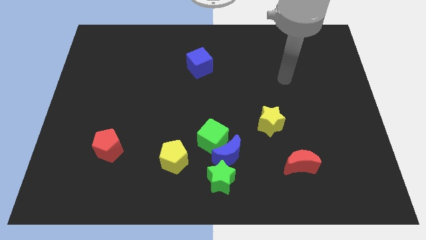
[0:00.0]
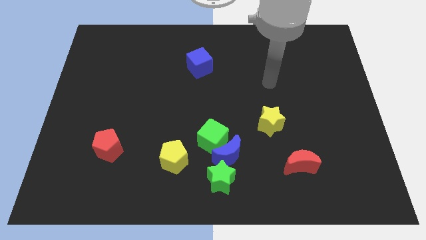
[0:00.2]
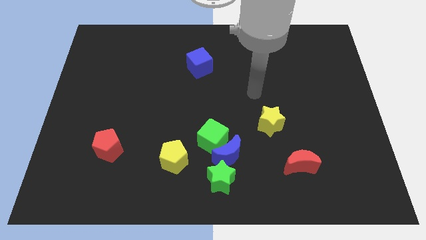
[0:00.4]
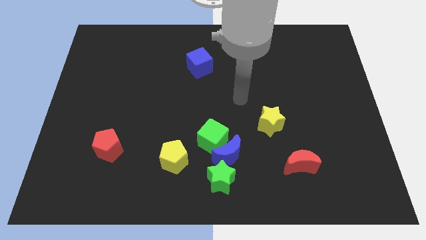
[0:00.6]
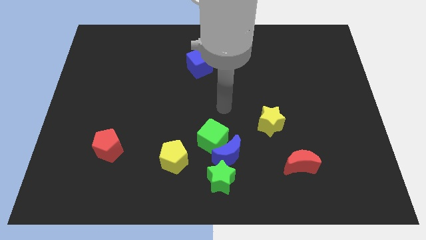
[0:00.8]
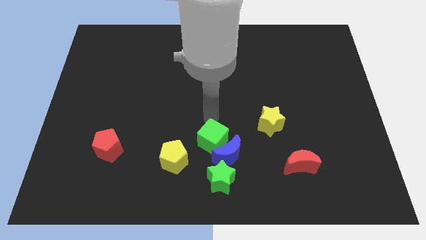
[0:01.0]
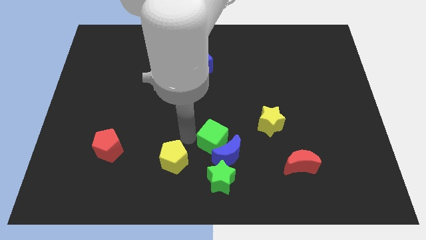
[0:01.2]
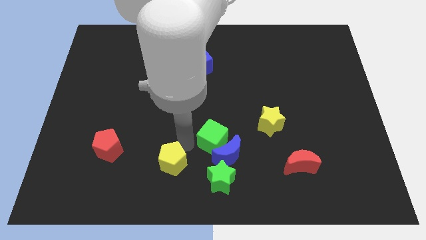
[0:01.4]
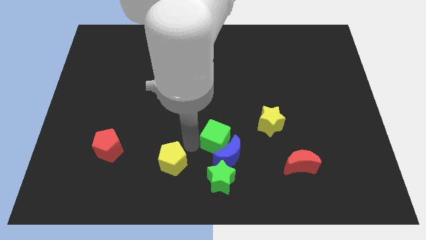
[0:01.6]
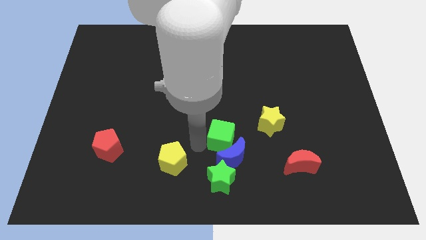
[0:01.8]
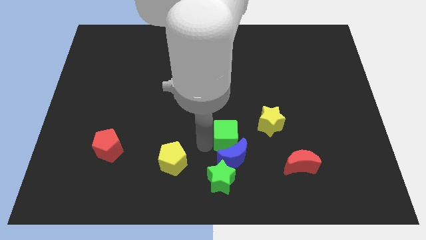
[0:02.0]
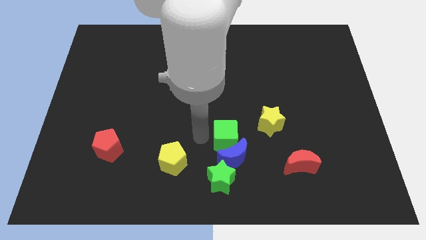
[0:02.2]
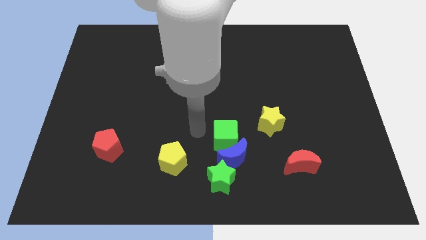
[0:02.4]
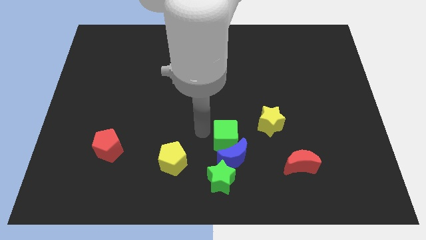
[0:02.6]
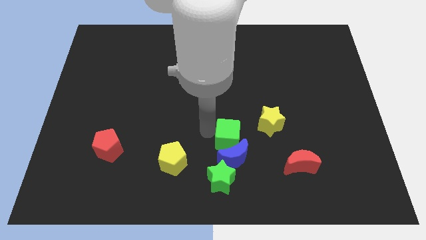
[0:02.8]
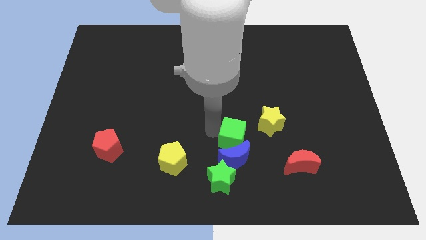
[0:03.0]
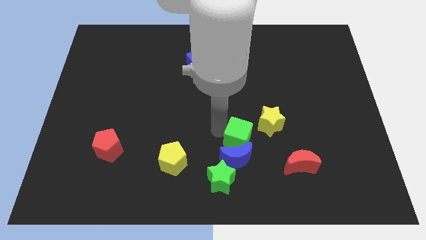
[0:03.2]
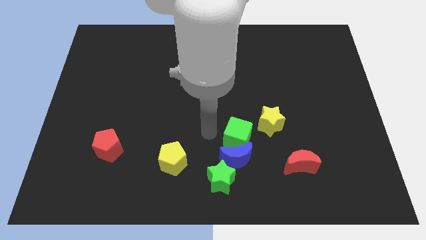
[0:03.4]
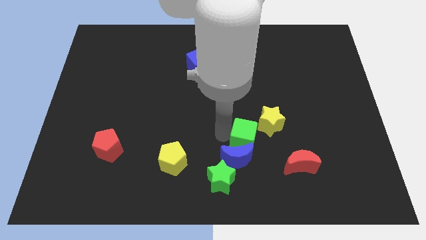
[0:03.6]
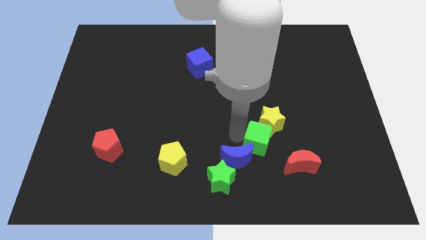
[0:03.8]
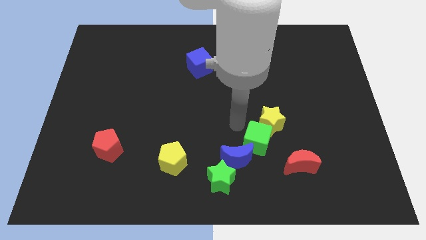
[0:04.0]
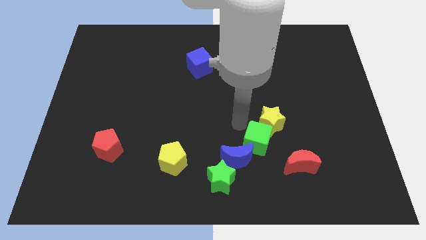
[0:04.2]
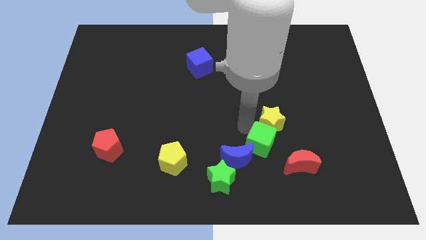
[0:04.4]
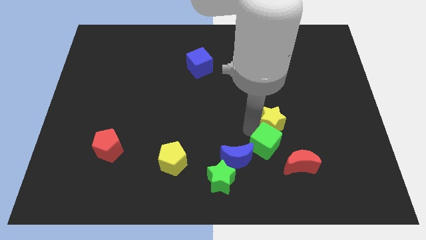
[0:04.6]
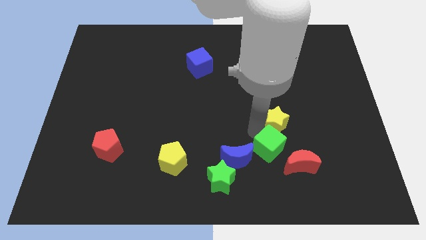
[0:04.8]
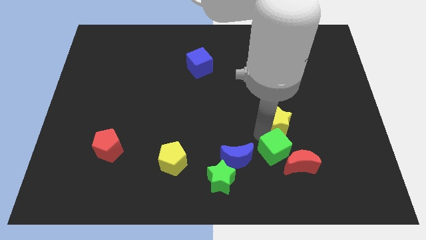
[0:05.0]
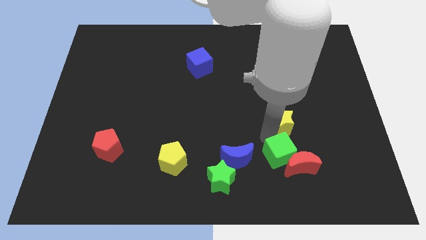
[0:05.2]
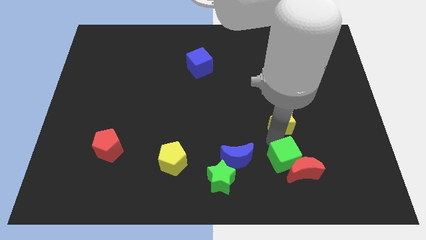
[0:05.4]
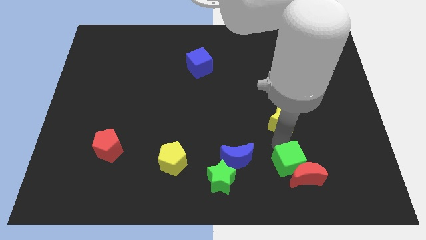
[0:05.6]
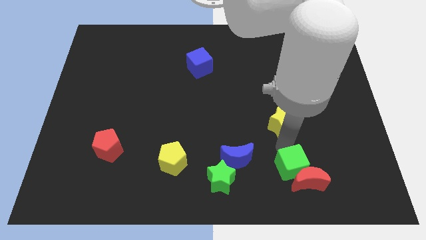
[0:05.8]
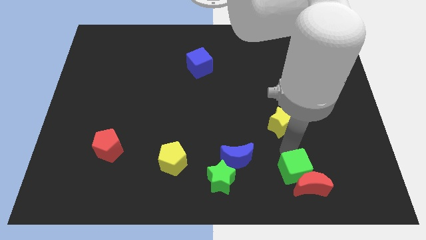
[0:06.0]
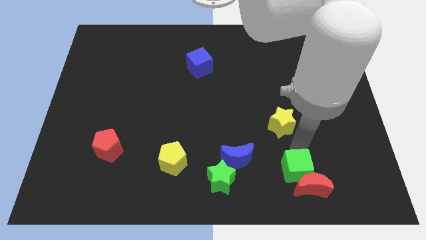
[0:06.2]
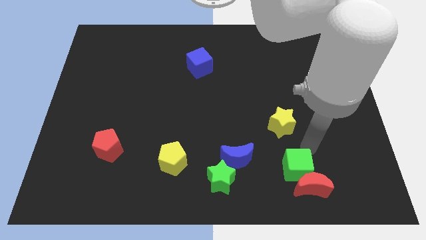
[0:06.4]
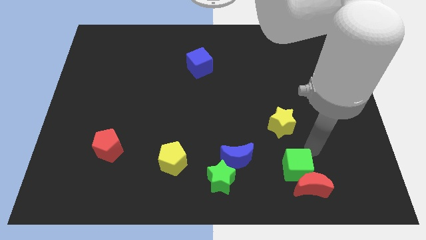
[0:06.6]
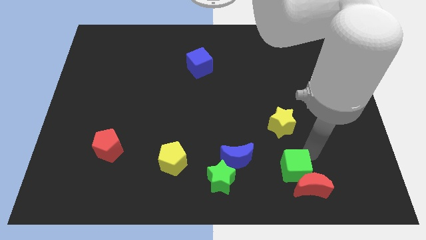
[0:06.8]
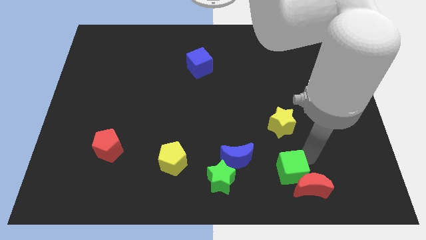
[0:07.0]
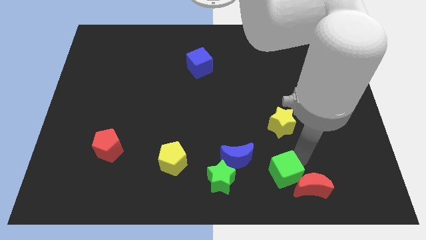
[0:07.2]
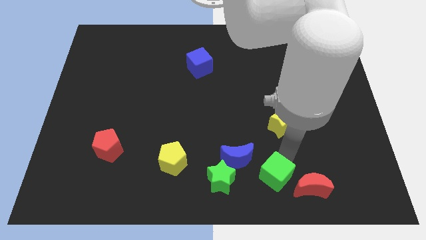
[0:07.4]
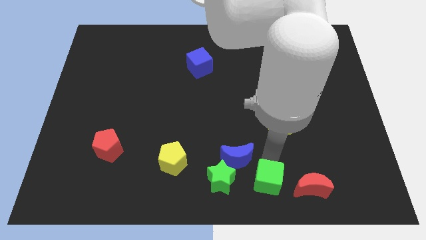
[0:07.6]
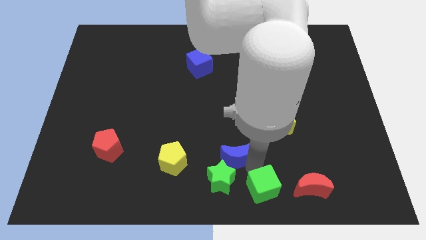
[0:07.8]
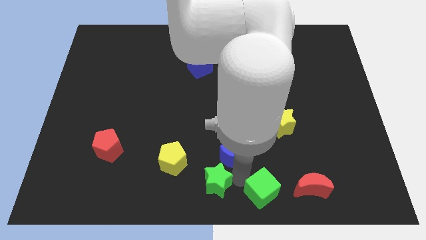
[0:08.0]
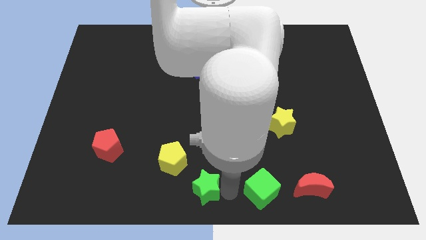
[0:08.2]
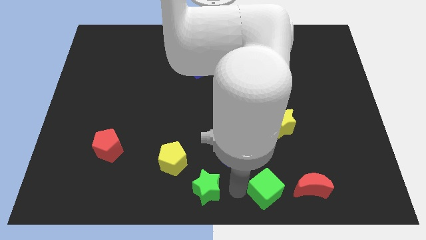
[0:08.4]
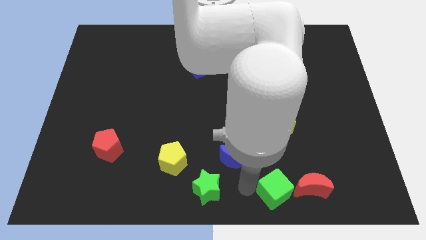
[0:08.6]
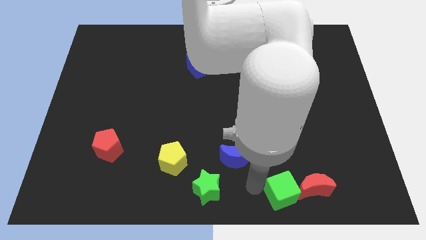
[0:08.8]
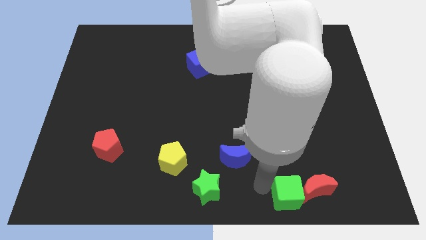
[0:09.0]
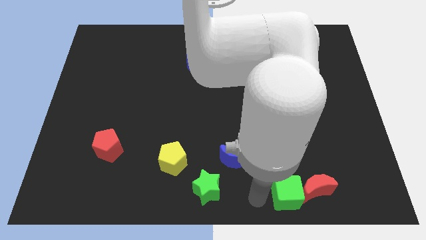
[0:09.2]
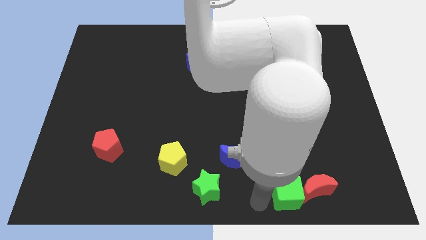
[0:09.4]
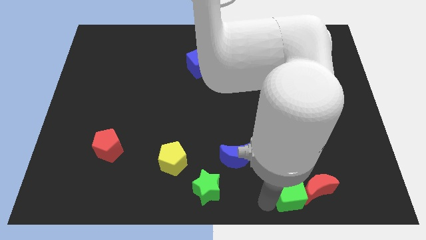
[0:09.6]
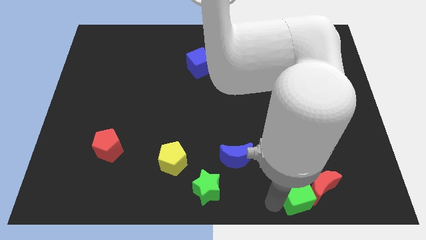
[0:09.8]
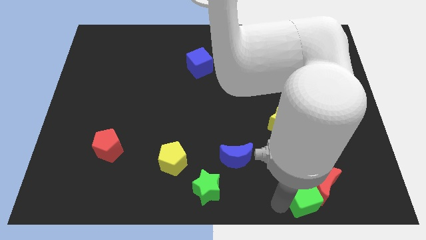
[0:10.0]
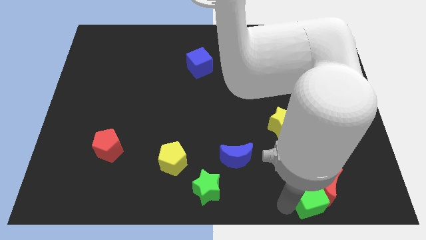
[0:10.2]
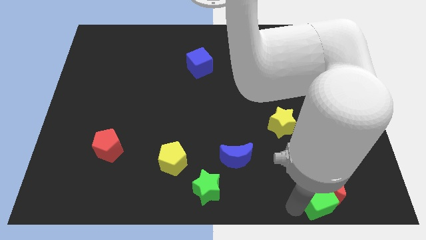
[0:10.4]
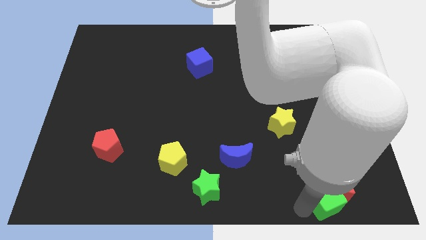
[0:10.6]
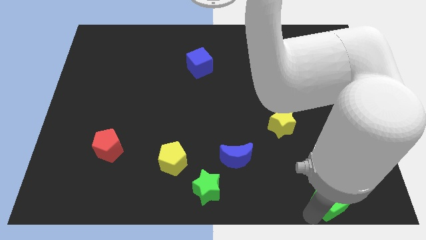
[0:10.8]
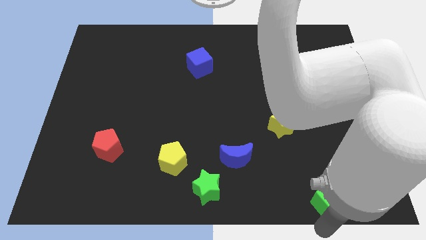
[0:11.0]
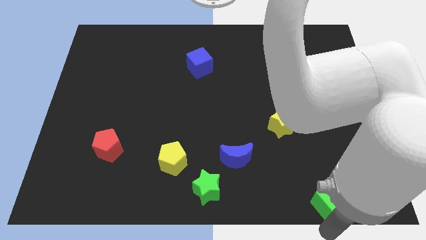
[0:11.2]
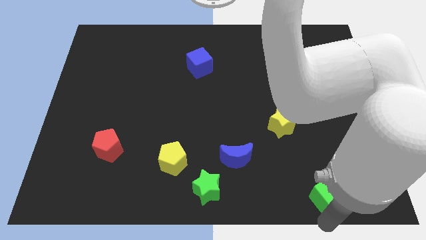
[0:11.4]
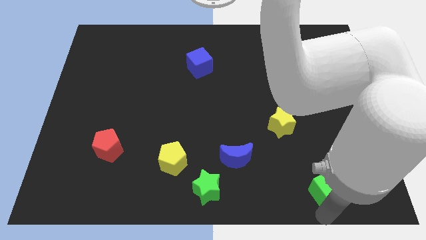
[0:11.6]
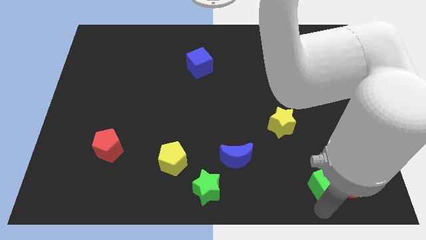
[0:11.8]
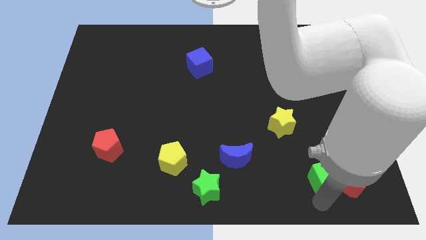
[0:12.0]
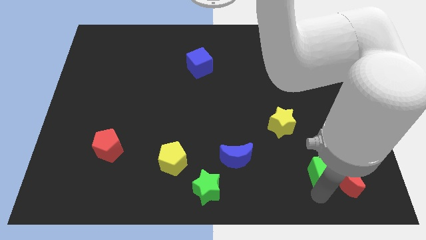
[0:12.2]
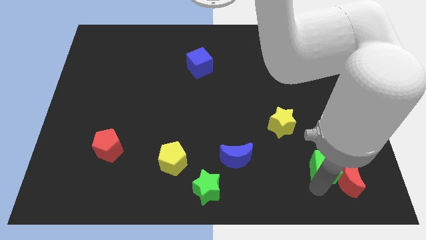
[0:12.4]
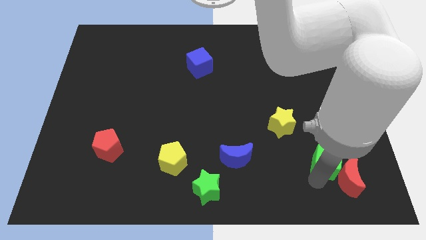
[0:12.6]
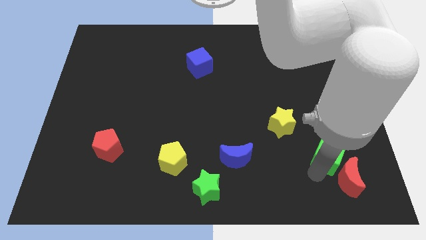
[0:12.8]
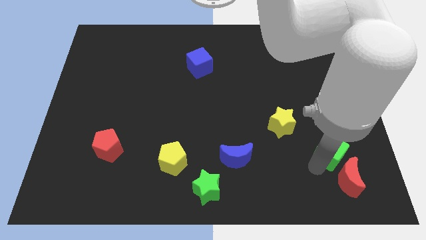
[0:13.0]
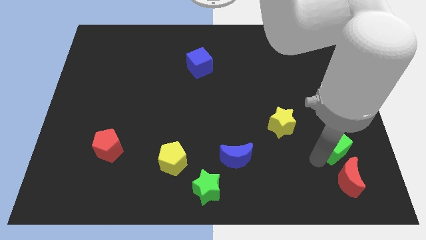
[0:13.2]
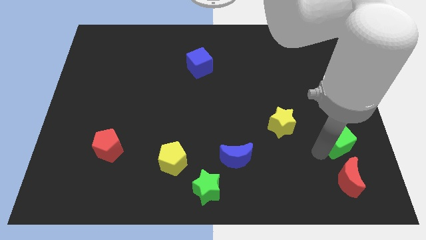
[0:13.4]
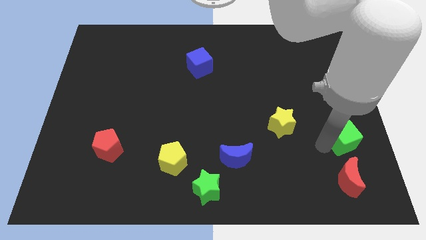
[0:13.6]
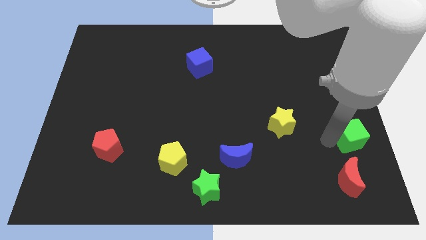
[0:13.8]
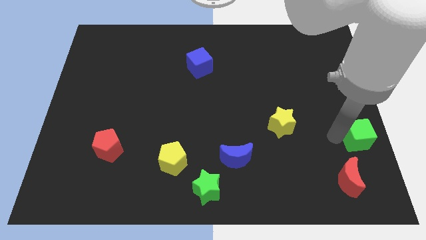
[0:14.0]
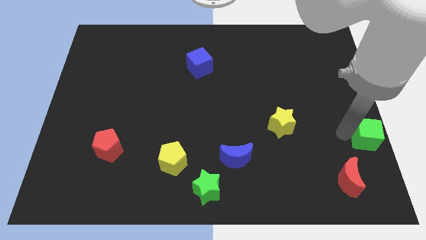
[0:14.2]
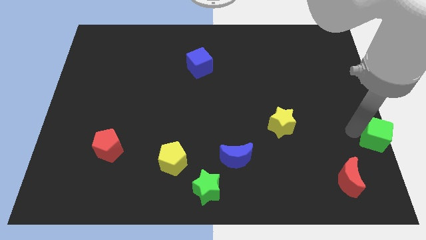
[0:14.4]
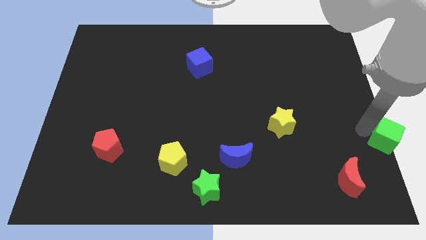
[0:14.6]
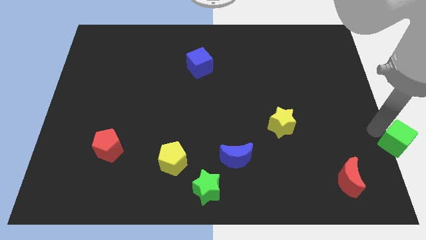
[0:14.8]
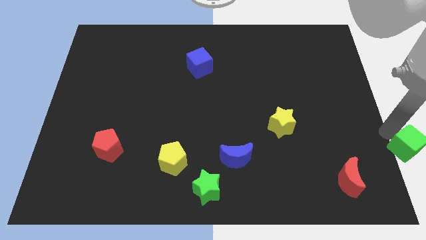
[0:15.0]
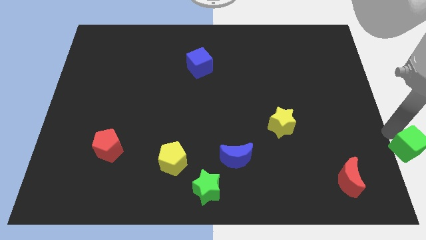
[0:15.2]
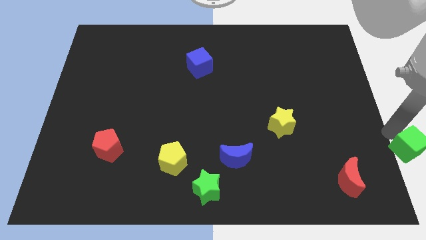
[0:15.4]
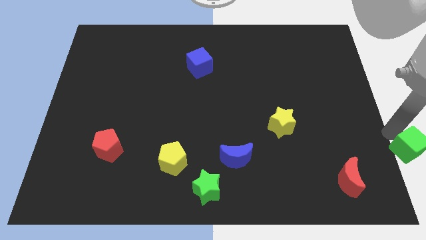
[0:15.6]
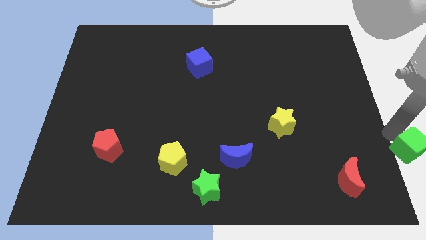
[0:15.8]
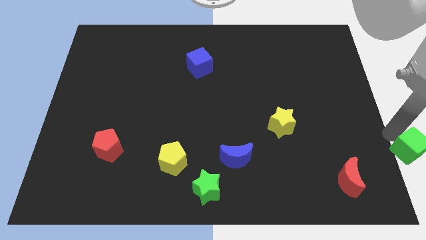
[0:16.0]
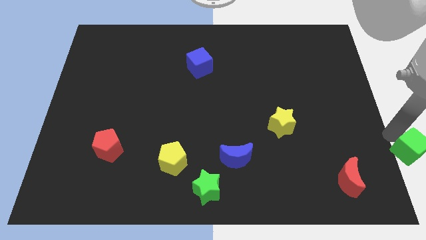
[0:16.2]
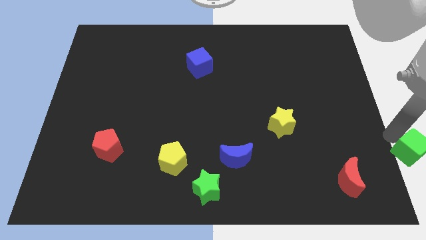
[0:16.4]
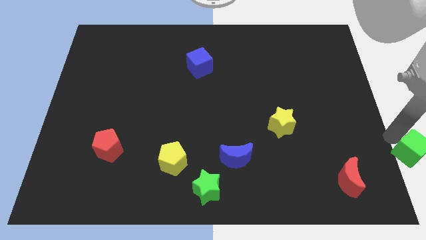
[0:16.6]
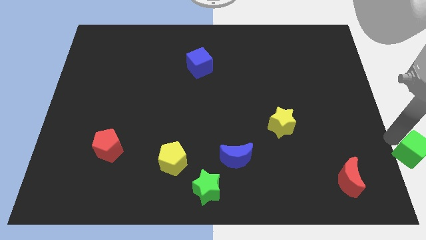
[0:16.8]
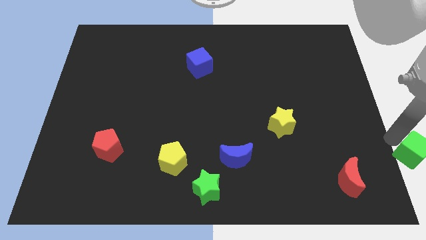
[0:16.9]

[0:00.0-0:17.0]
put the green cube to the bottom right of the board
